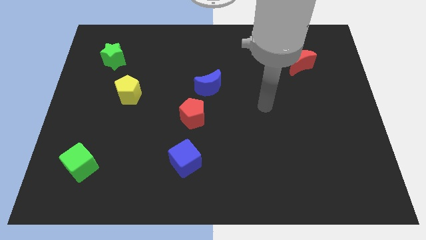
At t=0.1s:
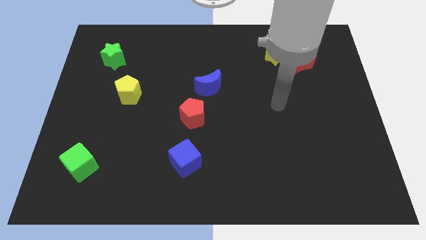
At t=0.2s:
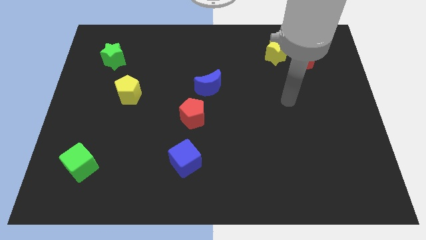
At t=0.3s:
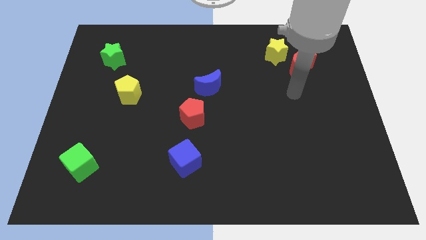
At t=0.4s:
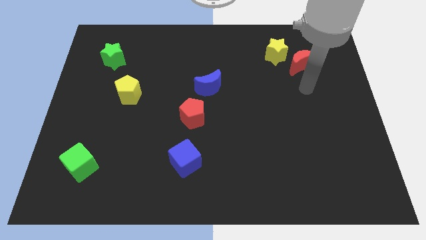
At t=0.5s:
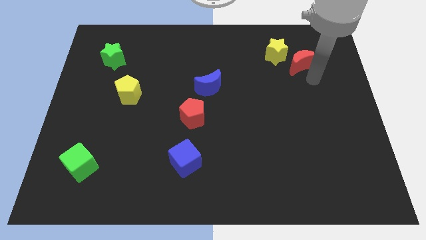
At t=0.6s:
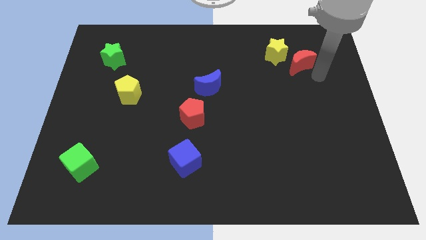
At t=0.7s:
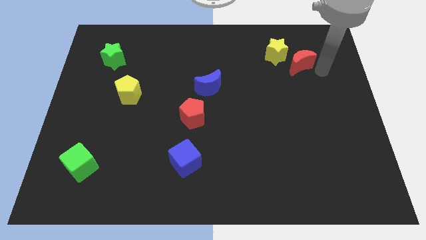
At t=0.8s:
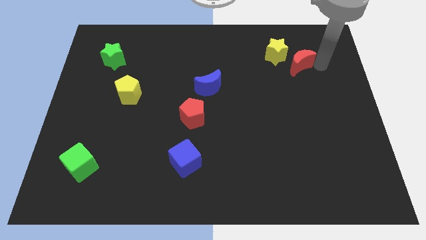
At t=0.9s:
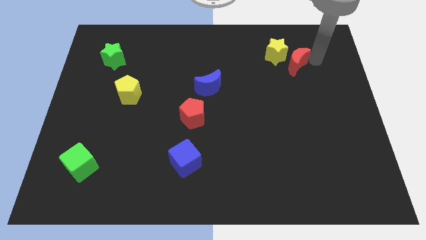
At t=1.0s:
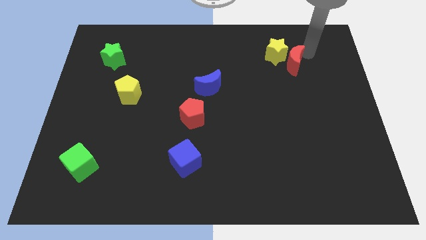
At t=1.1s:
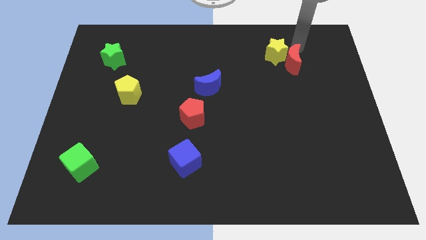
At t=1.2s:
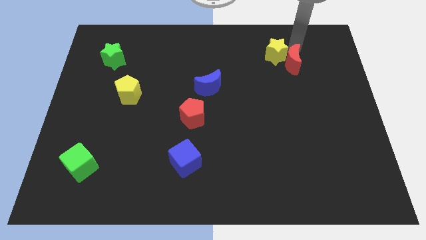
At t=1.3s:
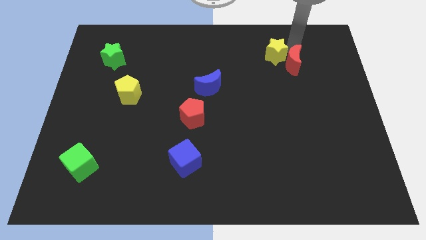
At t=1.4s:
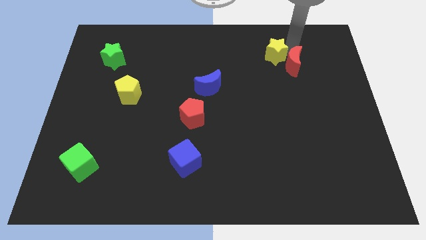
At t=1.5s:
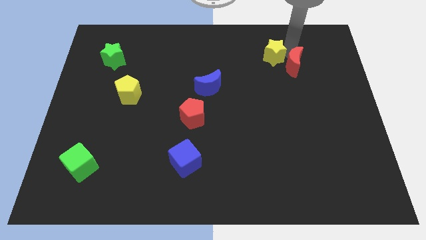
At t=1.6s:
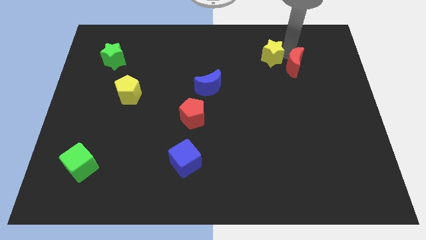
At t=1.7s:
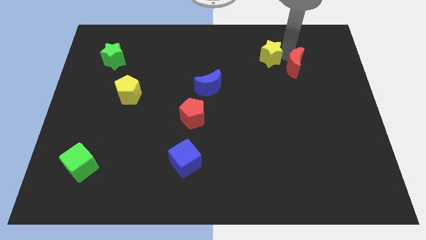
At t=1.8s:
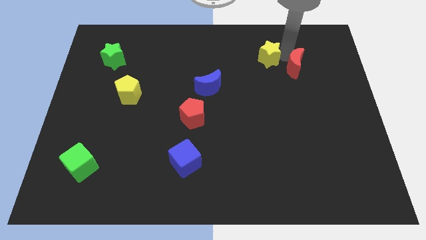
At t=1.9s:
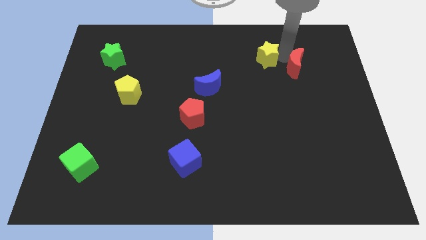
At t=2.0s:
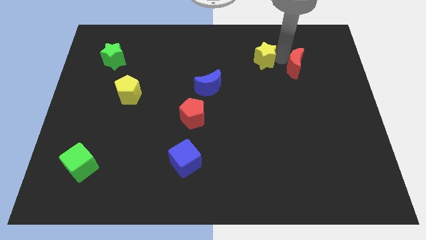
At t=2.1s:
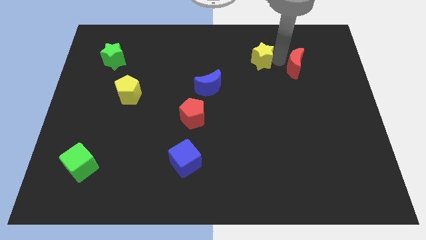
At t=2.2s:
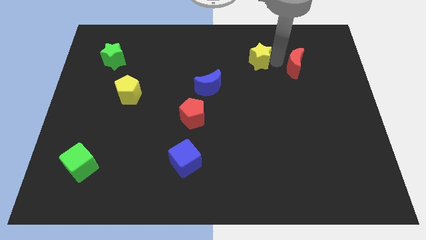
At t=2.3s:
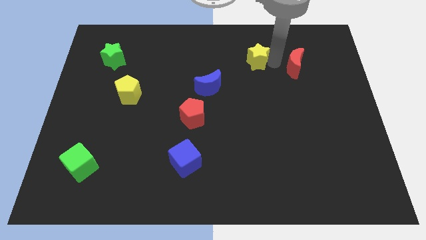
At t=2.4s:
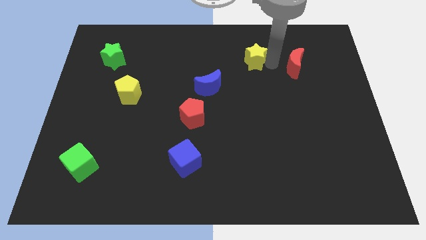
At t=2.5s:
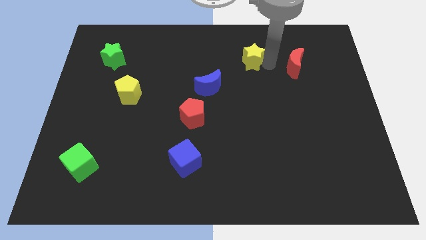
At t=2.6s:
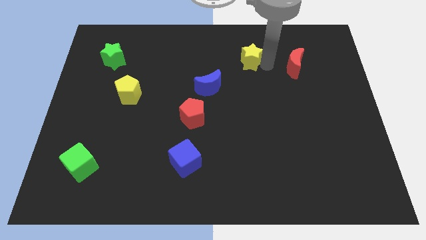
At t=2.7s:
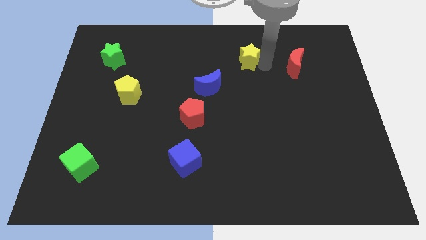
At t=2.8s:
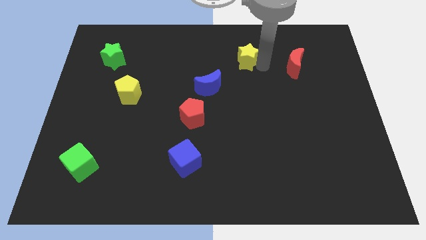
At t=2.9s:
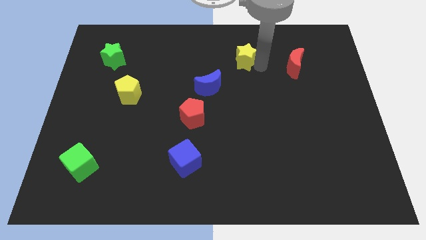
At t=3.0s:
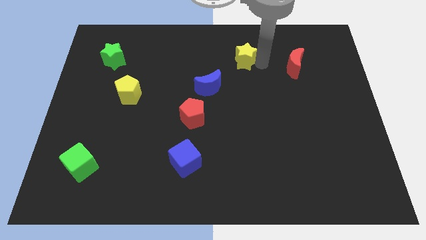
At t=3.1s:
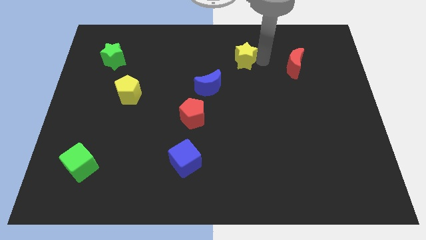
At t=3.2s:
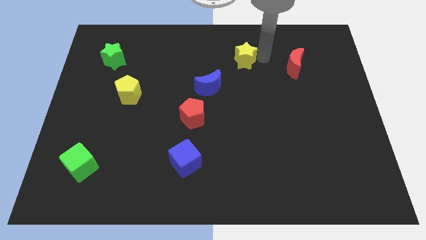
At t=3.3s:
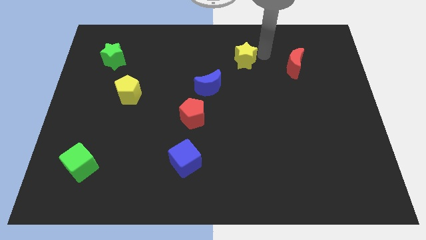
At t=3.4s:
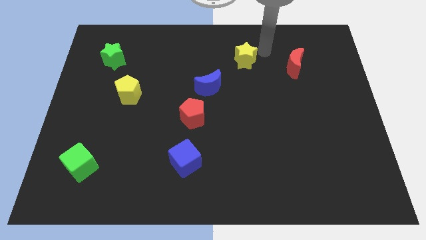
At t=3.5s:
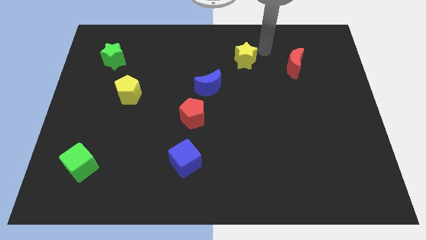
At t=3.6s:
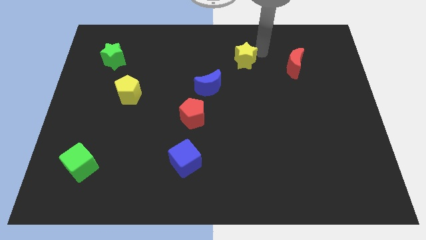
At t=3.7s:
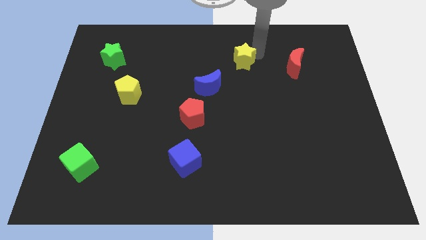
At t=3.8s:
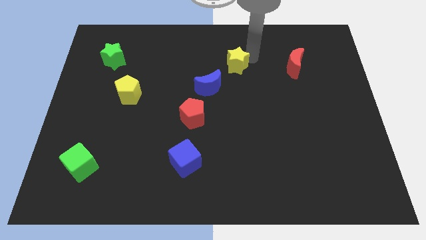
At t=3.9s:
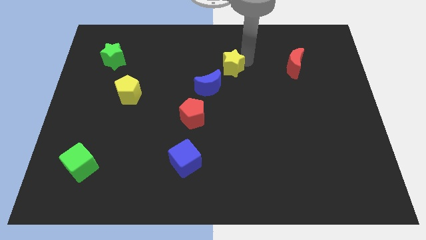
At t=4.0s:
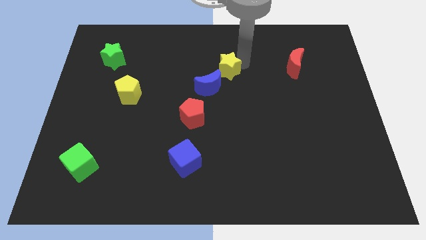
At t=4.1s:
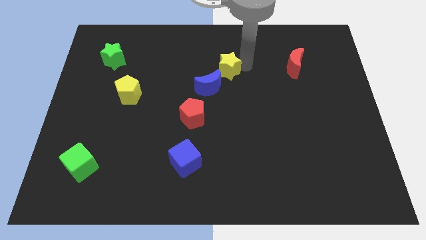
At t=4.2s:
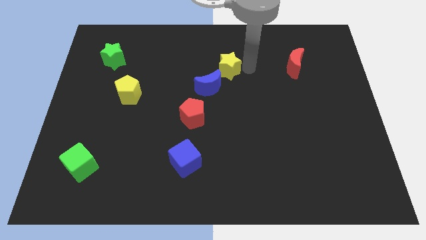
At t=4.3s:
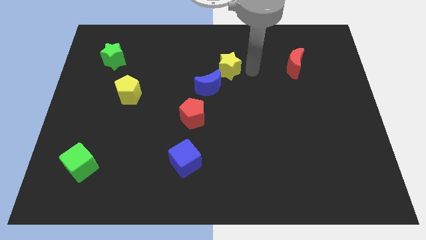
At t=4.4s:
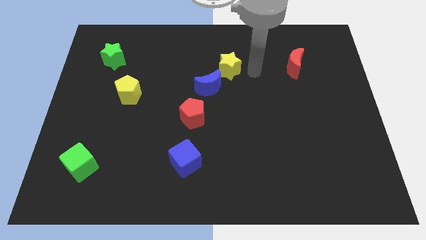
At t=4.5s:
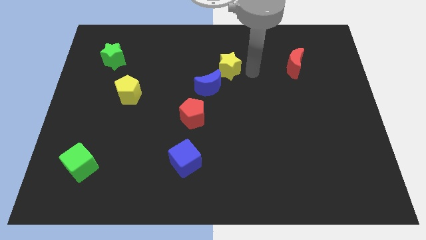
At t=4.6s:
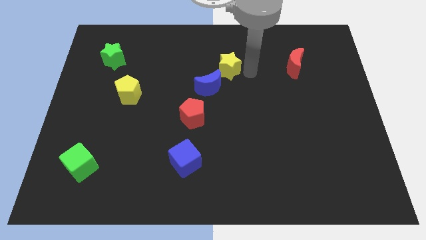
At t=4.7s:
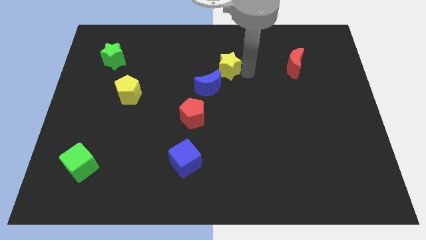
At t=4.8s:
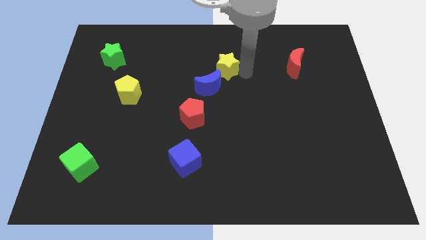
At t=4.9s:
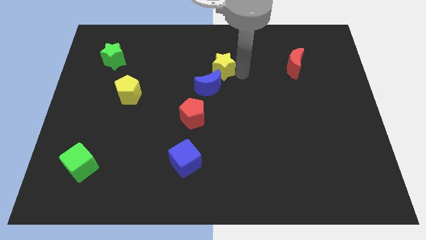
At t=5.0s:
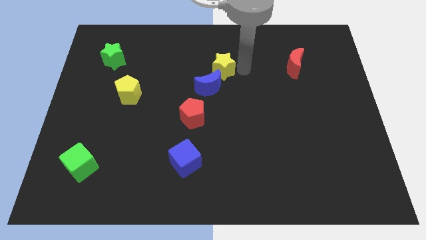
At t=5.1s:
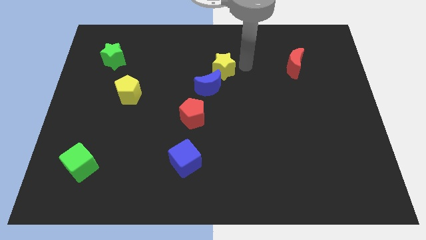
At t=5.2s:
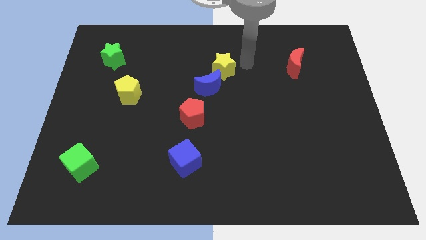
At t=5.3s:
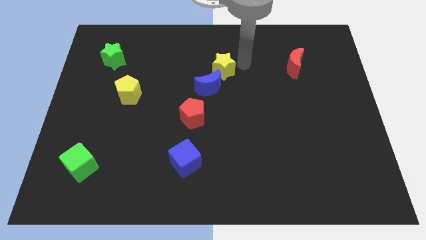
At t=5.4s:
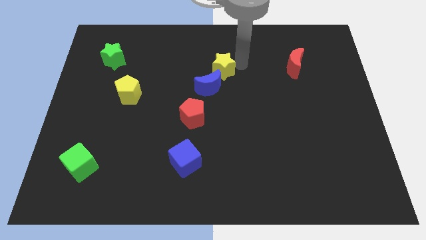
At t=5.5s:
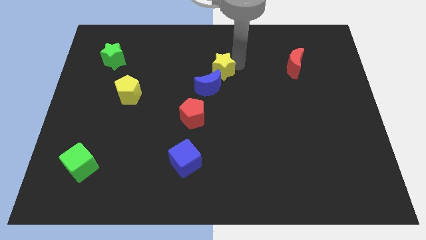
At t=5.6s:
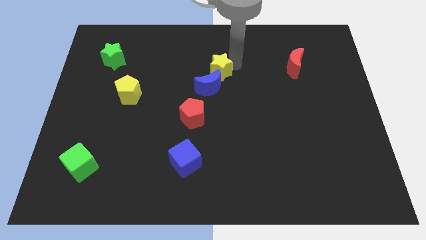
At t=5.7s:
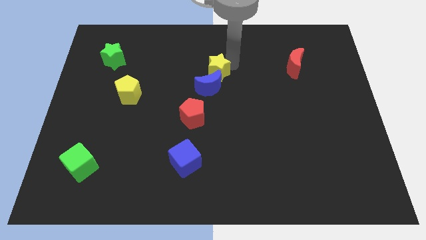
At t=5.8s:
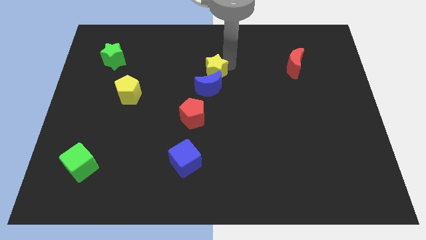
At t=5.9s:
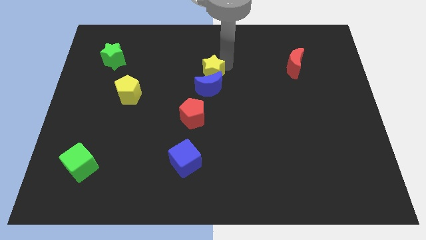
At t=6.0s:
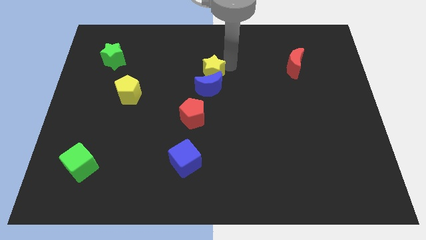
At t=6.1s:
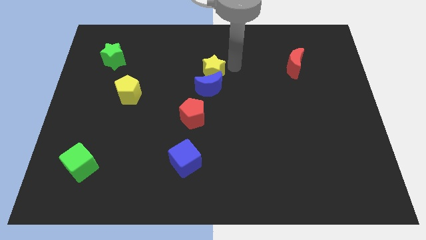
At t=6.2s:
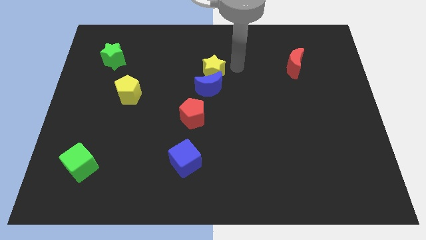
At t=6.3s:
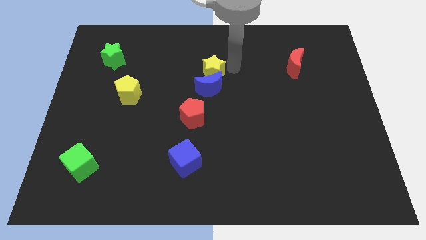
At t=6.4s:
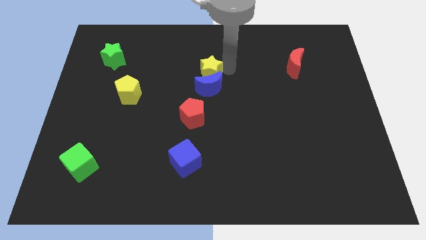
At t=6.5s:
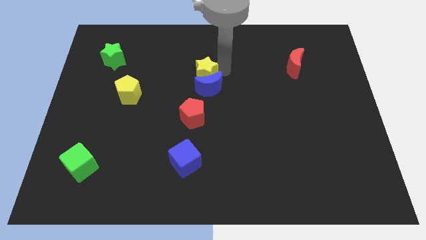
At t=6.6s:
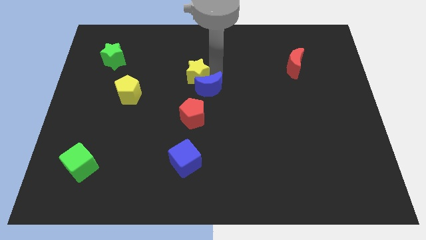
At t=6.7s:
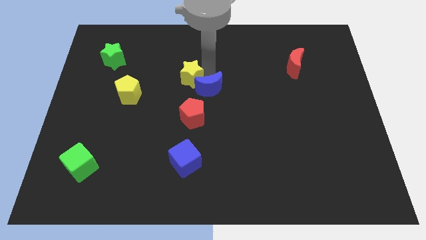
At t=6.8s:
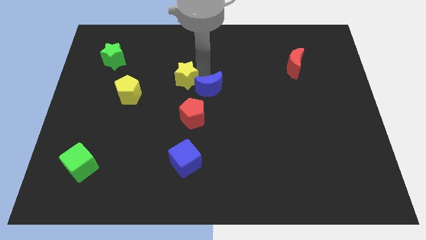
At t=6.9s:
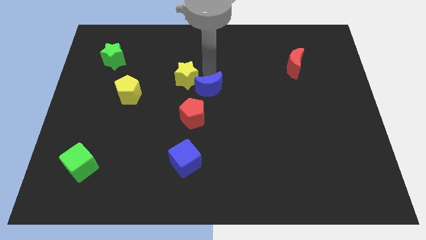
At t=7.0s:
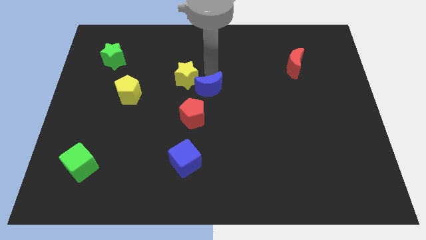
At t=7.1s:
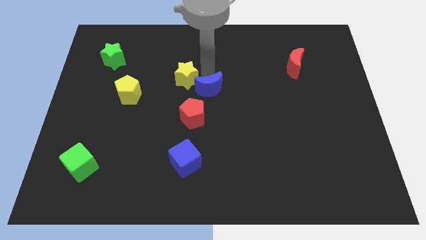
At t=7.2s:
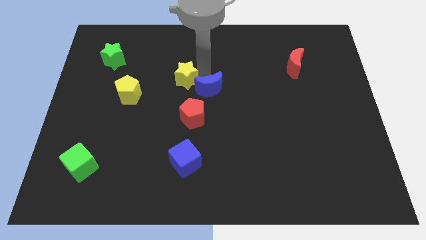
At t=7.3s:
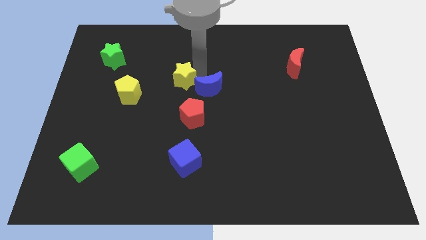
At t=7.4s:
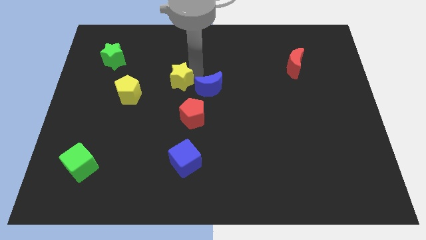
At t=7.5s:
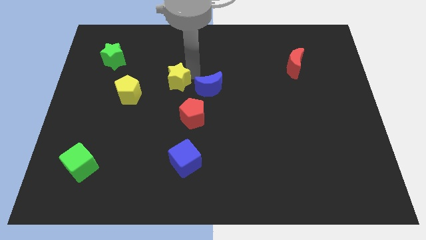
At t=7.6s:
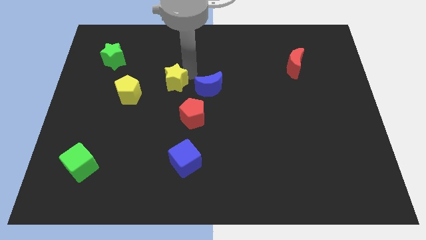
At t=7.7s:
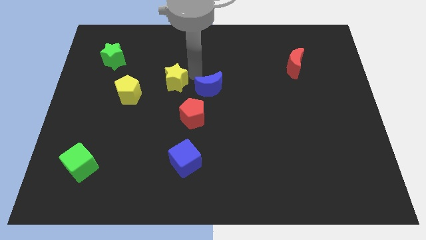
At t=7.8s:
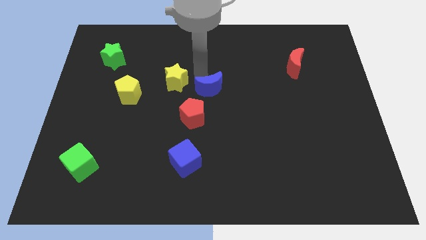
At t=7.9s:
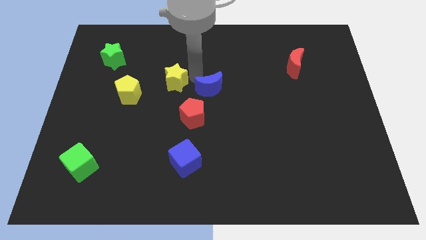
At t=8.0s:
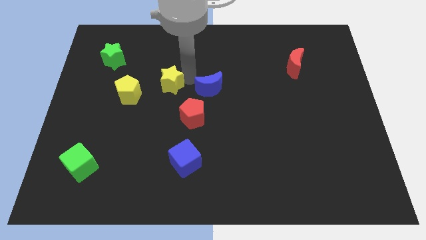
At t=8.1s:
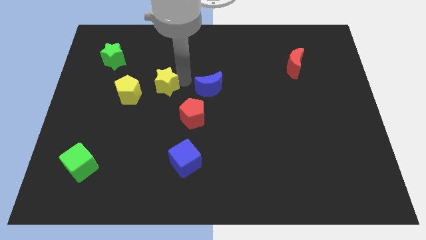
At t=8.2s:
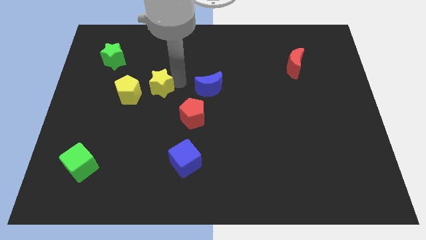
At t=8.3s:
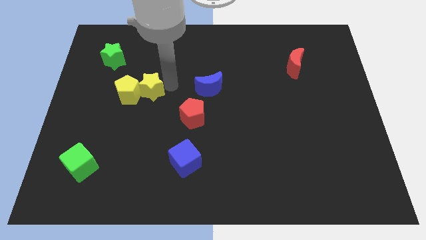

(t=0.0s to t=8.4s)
slide the yellow star to the yellow pentagon
